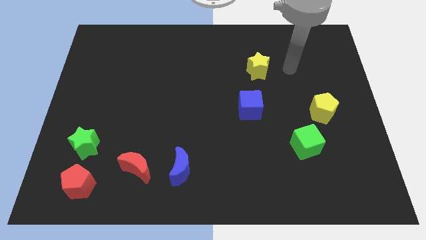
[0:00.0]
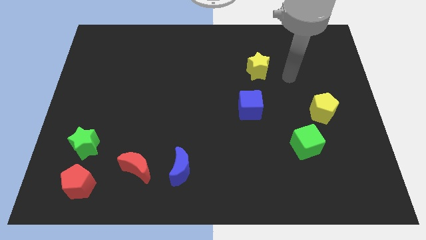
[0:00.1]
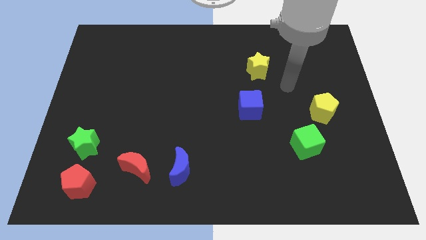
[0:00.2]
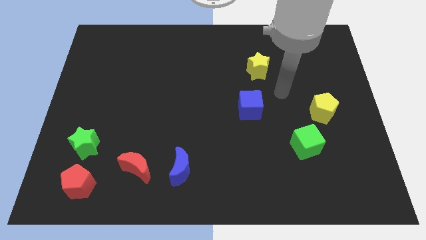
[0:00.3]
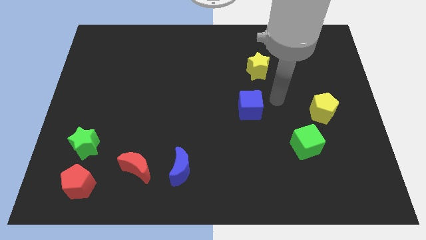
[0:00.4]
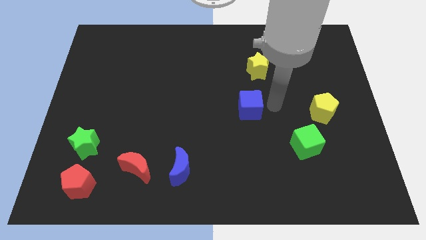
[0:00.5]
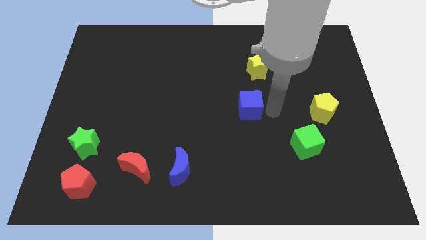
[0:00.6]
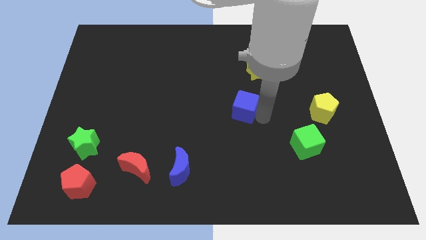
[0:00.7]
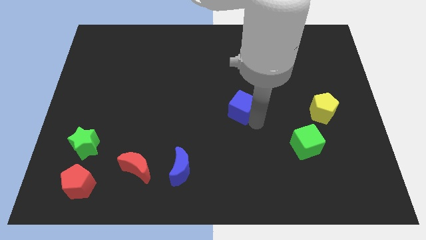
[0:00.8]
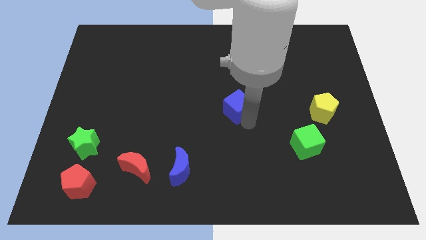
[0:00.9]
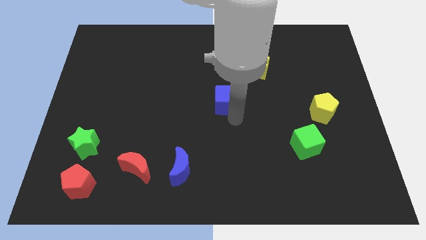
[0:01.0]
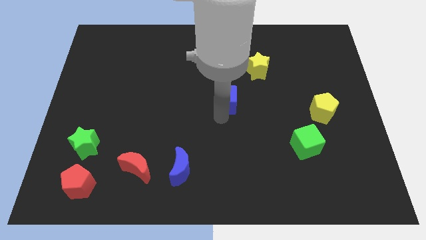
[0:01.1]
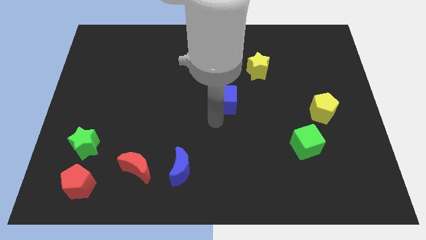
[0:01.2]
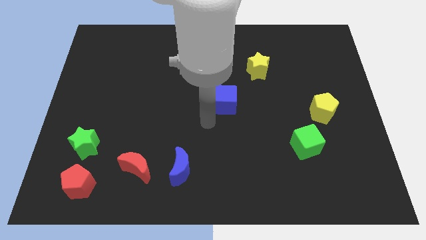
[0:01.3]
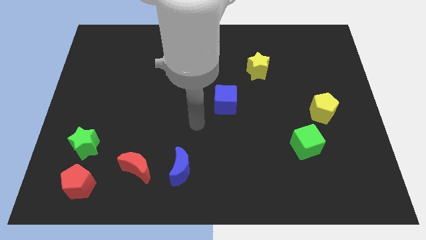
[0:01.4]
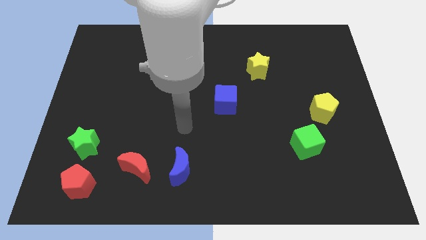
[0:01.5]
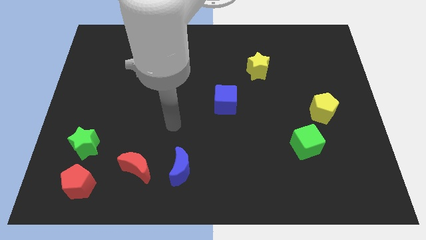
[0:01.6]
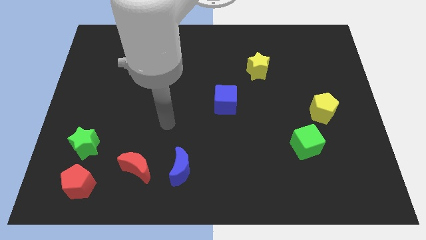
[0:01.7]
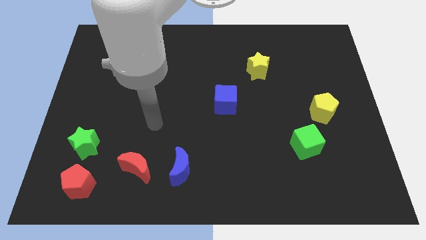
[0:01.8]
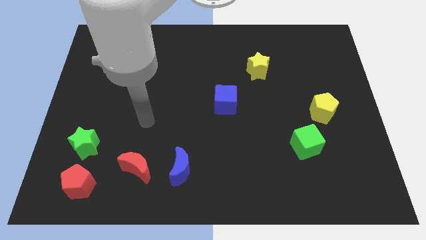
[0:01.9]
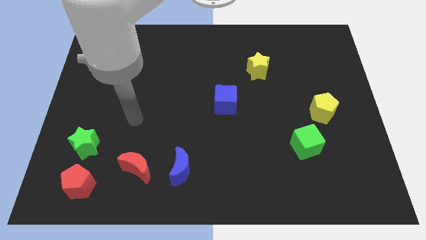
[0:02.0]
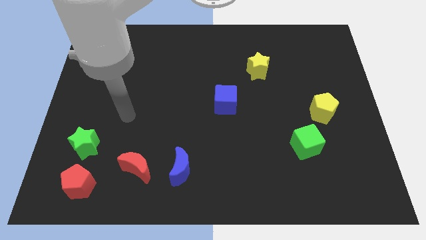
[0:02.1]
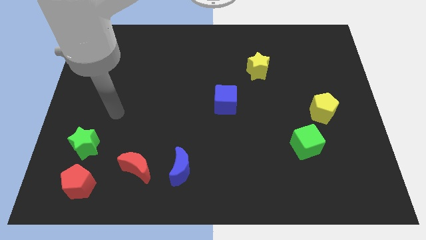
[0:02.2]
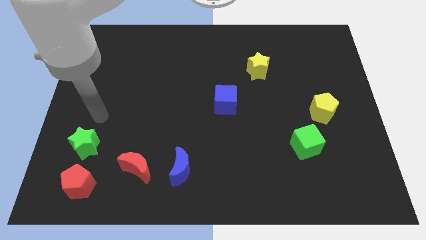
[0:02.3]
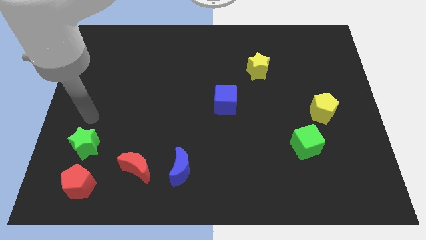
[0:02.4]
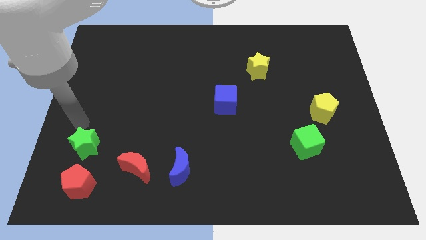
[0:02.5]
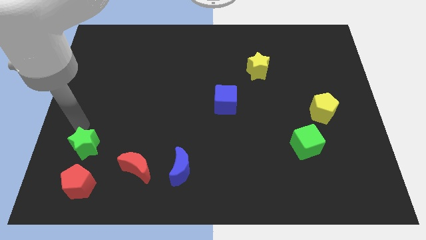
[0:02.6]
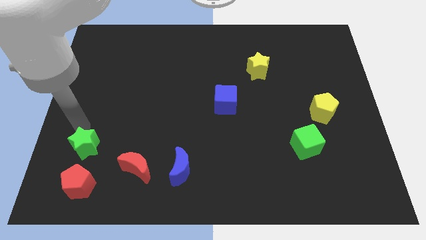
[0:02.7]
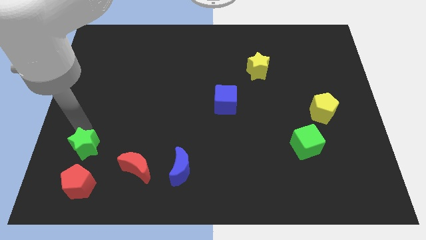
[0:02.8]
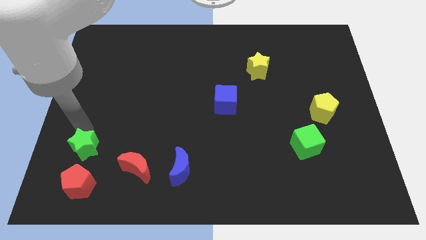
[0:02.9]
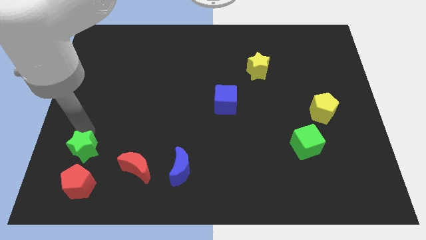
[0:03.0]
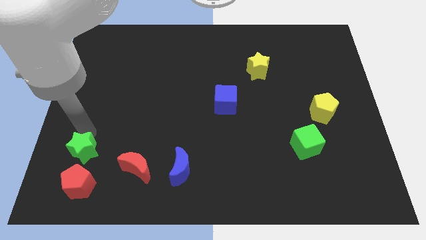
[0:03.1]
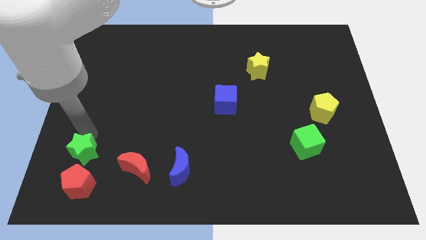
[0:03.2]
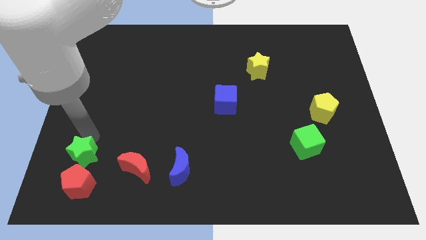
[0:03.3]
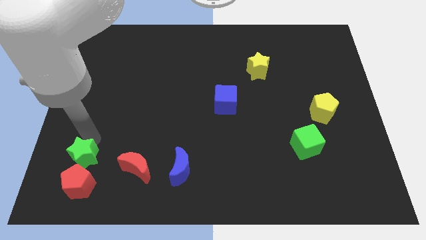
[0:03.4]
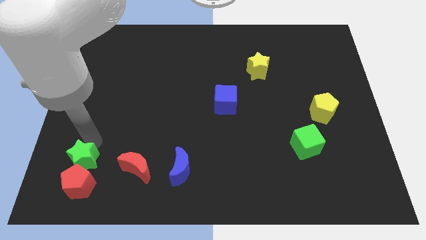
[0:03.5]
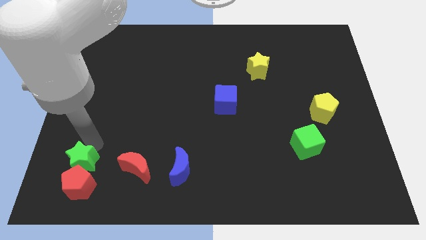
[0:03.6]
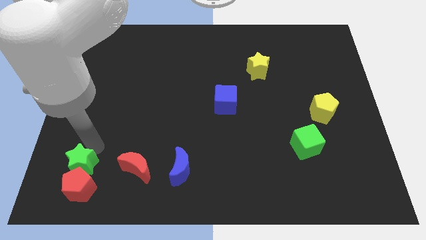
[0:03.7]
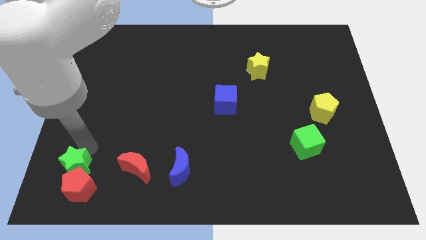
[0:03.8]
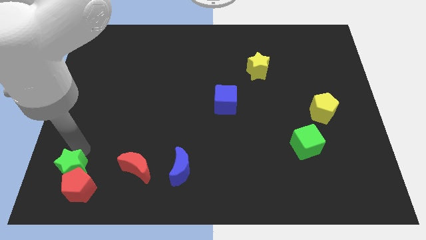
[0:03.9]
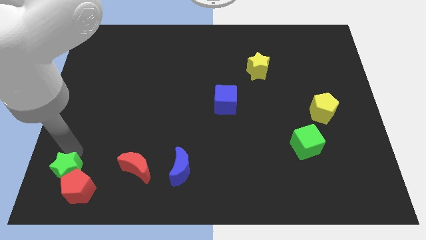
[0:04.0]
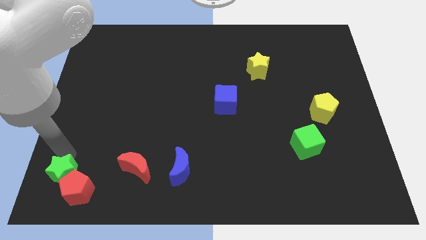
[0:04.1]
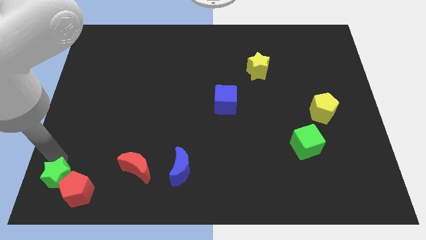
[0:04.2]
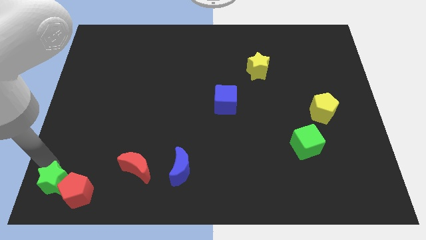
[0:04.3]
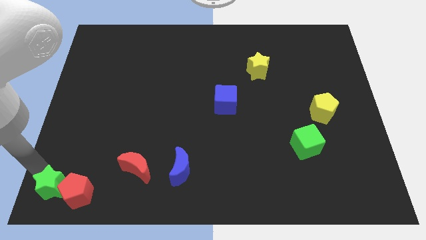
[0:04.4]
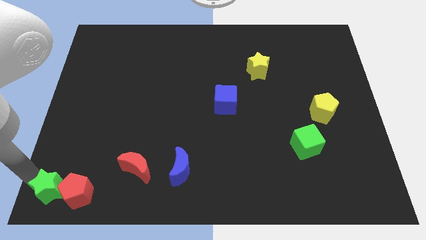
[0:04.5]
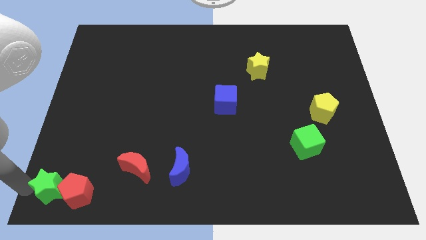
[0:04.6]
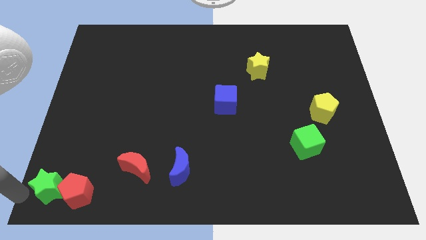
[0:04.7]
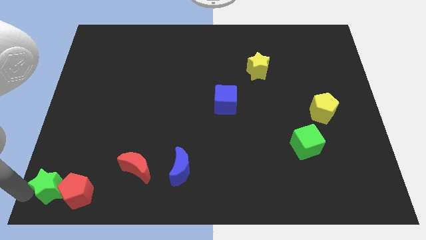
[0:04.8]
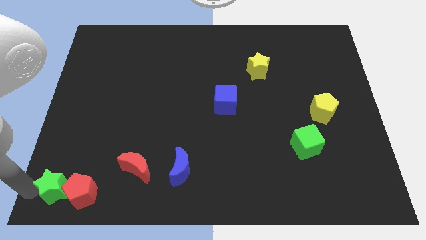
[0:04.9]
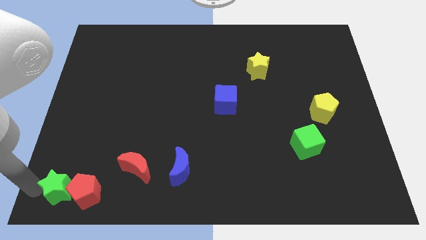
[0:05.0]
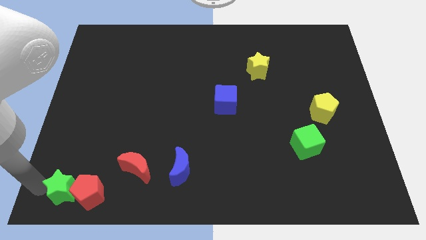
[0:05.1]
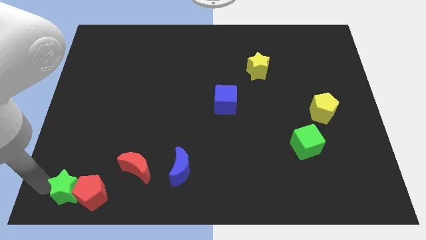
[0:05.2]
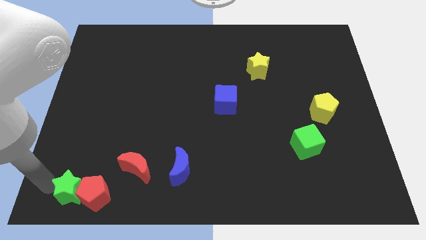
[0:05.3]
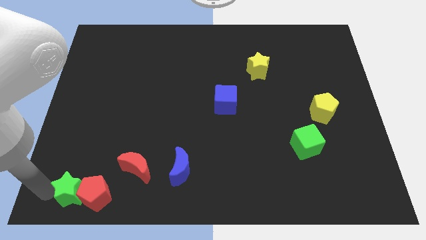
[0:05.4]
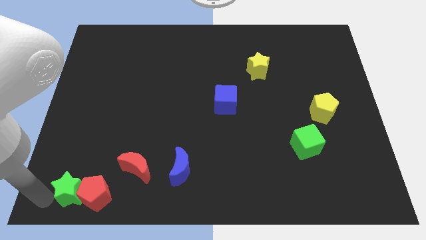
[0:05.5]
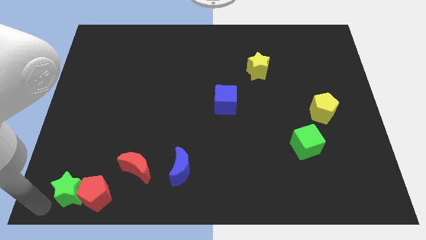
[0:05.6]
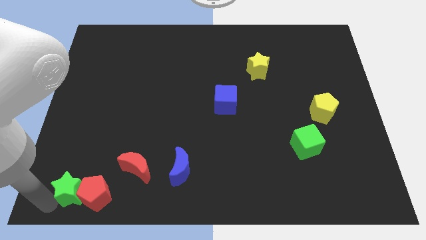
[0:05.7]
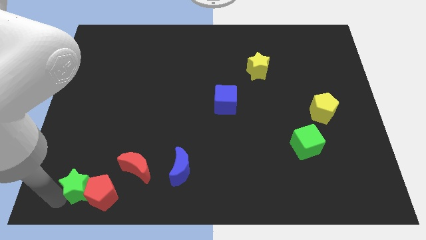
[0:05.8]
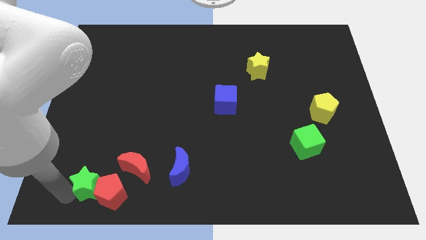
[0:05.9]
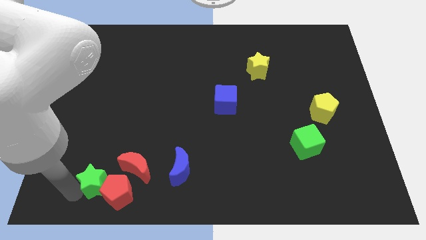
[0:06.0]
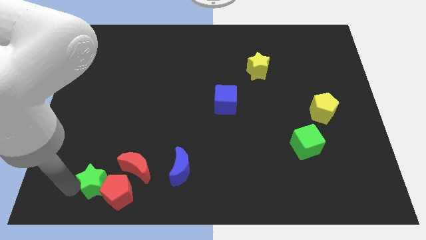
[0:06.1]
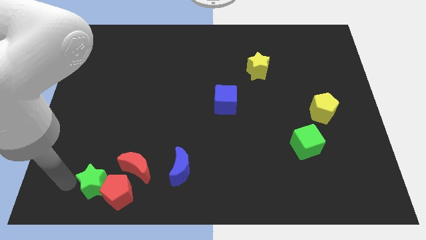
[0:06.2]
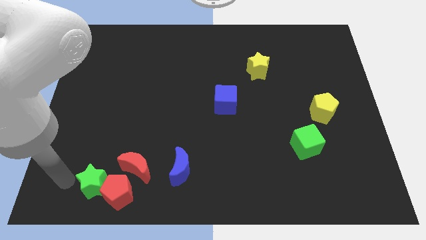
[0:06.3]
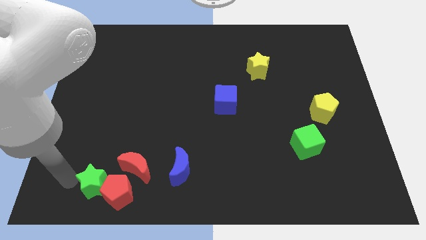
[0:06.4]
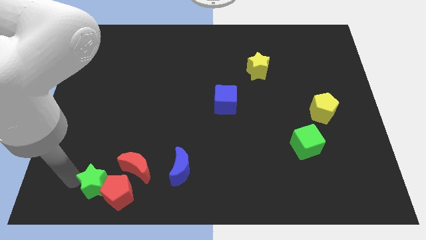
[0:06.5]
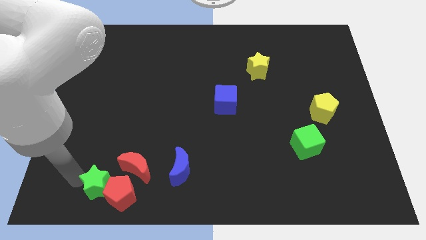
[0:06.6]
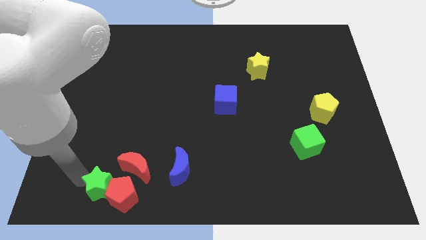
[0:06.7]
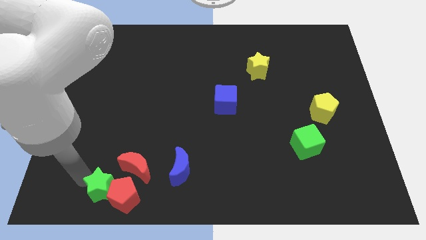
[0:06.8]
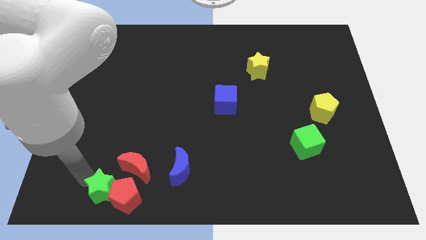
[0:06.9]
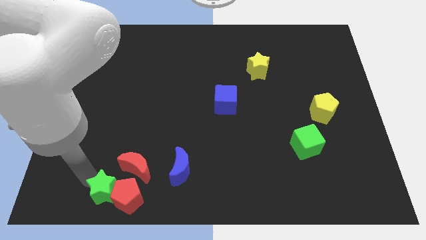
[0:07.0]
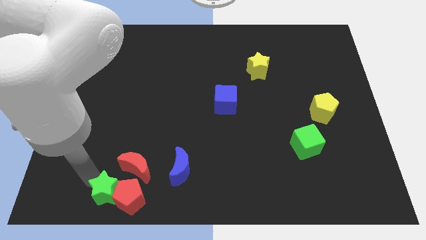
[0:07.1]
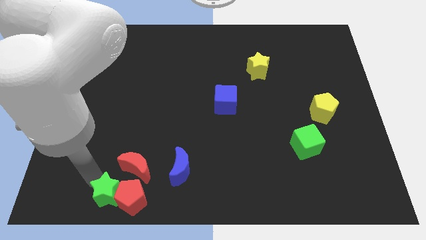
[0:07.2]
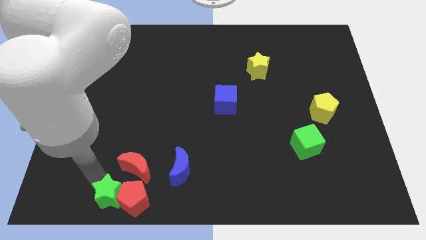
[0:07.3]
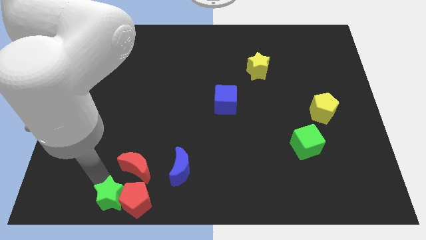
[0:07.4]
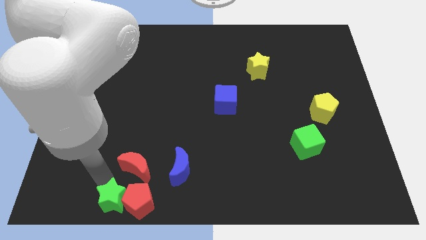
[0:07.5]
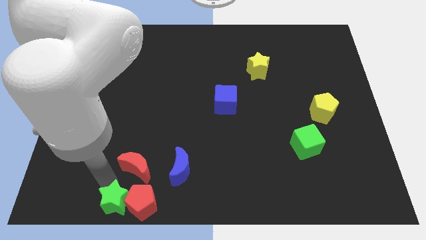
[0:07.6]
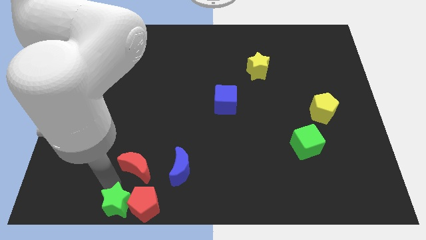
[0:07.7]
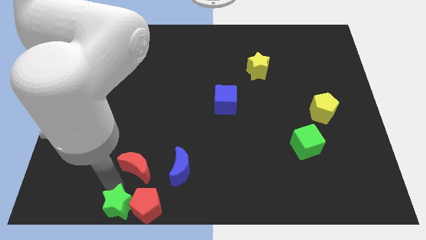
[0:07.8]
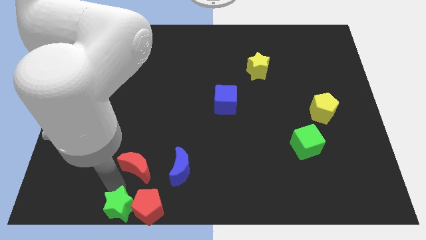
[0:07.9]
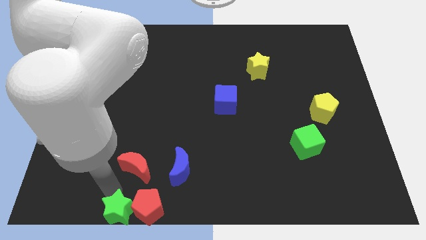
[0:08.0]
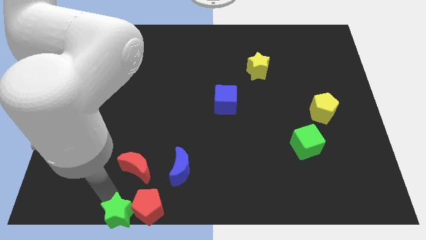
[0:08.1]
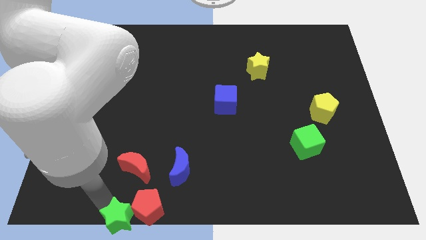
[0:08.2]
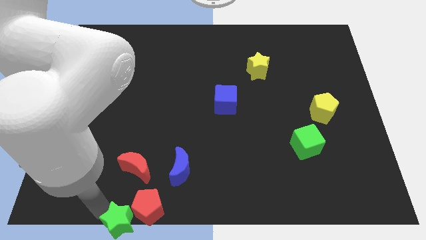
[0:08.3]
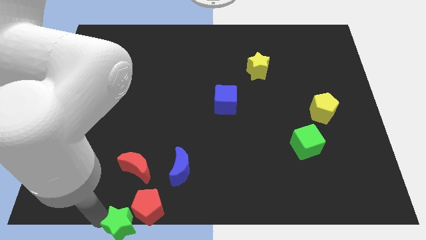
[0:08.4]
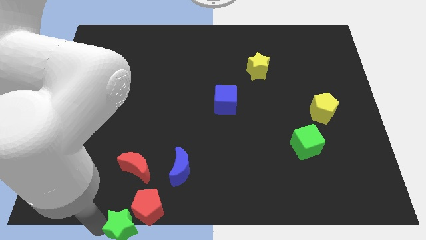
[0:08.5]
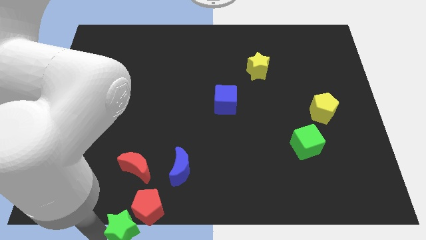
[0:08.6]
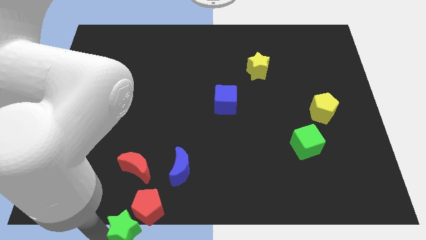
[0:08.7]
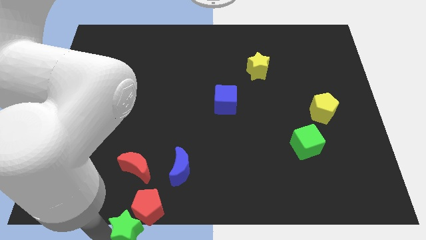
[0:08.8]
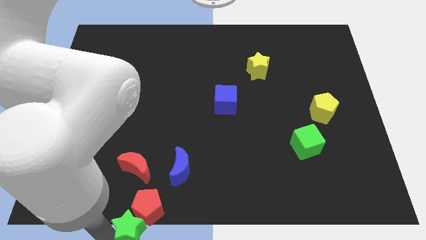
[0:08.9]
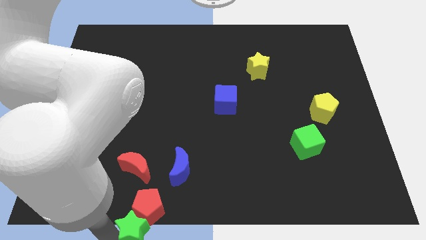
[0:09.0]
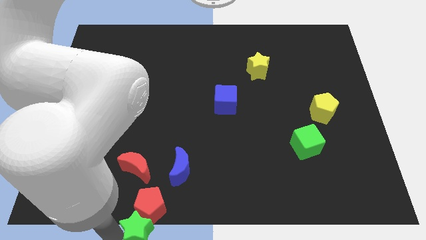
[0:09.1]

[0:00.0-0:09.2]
slide the green star to the bottom side
